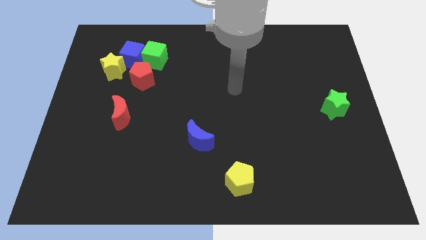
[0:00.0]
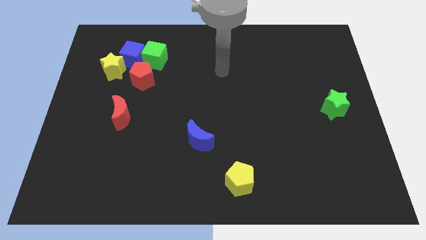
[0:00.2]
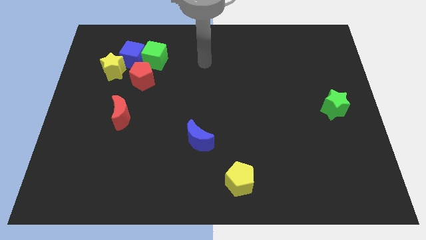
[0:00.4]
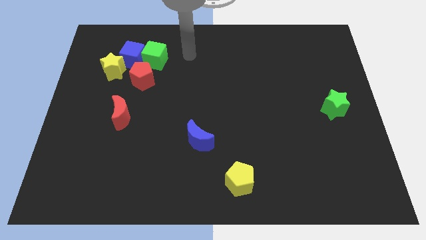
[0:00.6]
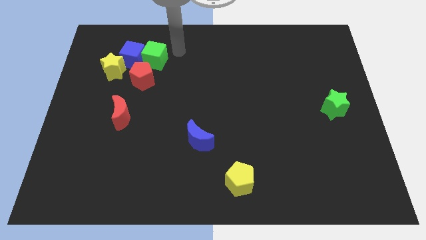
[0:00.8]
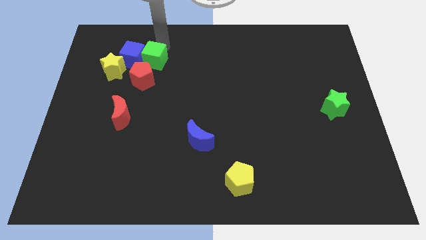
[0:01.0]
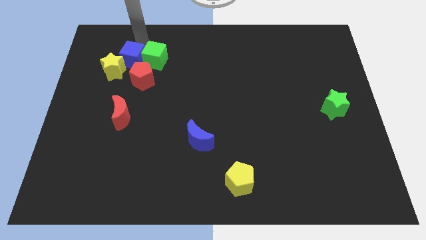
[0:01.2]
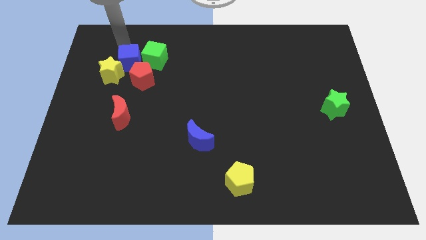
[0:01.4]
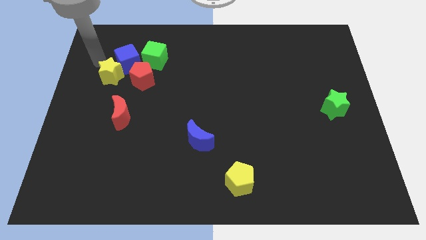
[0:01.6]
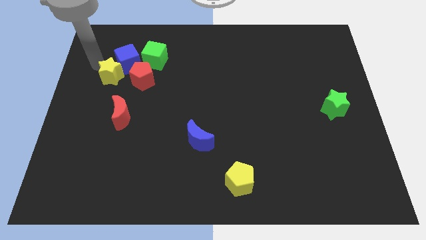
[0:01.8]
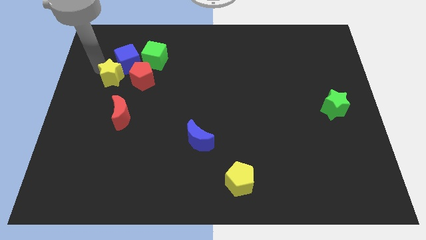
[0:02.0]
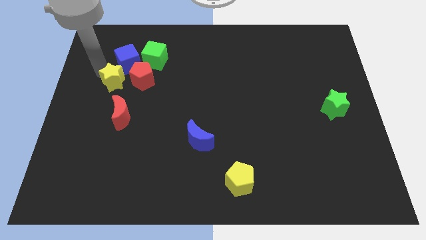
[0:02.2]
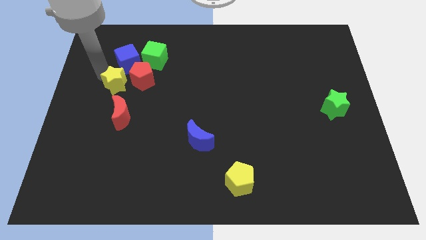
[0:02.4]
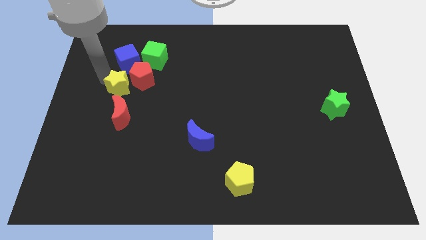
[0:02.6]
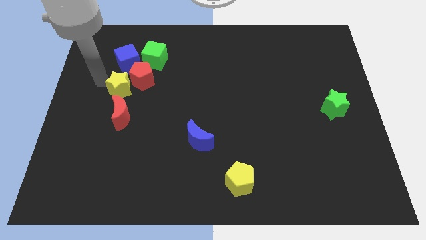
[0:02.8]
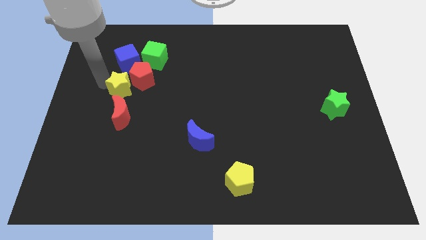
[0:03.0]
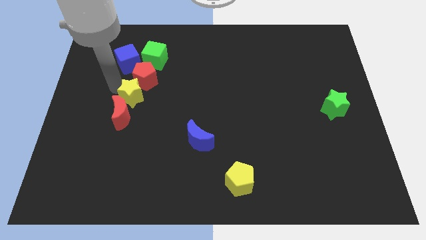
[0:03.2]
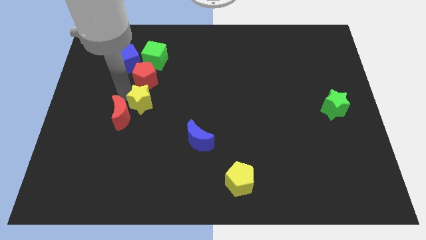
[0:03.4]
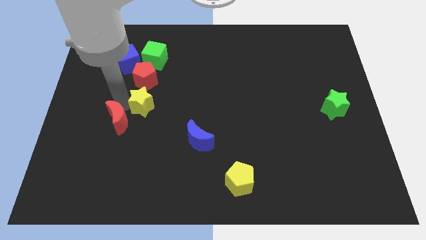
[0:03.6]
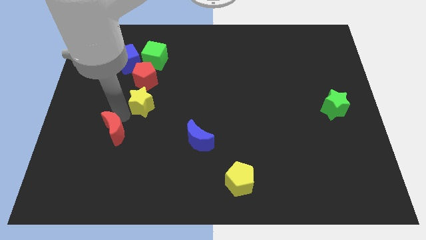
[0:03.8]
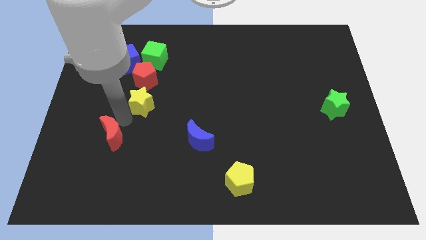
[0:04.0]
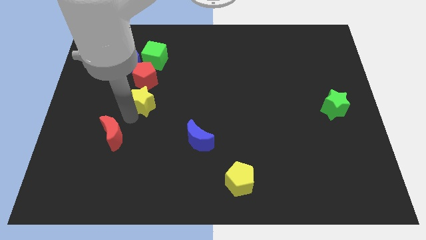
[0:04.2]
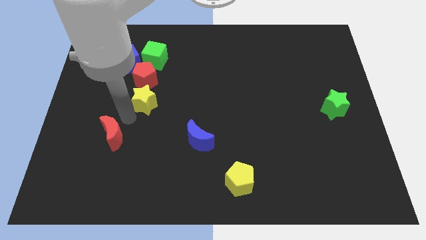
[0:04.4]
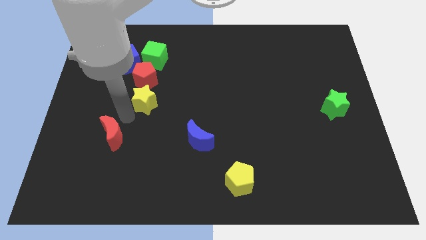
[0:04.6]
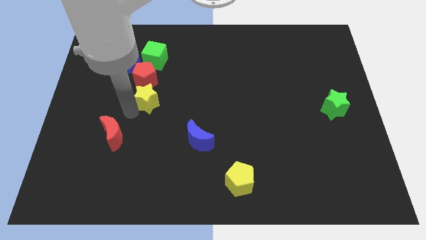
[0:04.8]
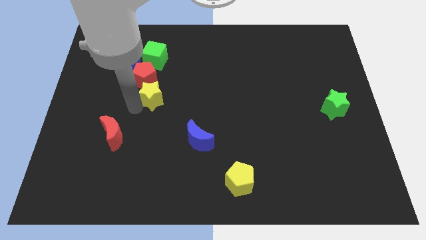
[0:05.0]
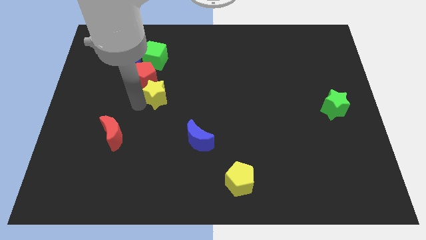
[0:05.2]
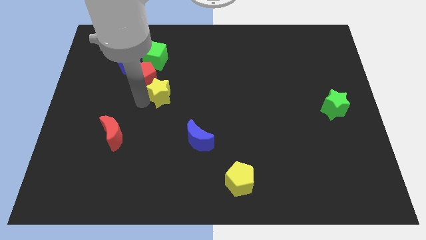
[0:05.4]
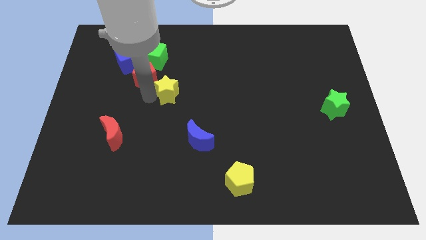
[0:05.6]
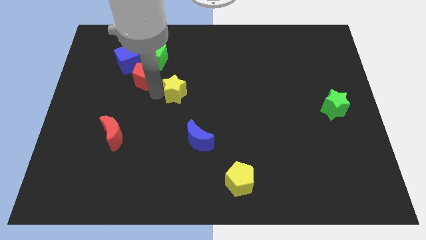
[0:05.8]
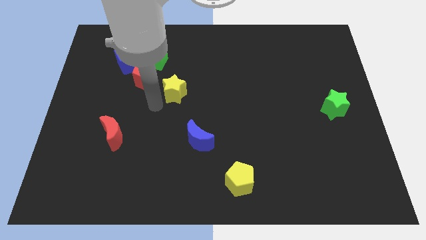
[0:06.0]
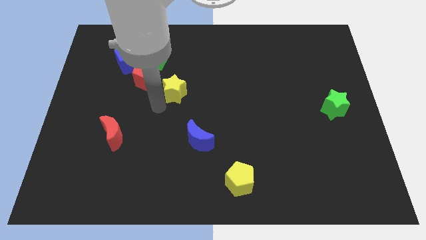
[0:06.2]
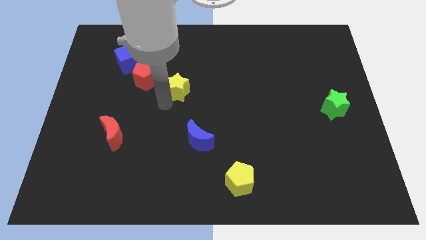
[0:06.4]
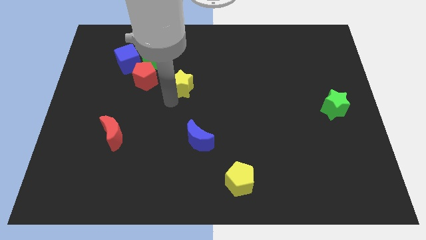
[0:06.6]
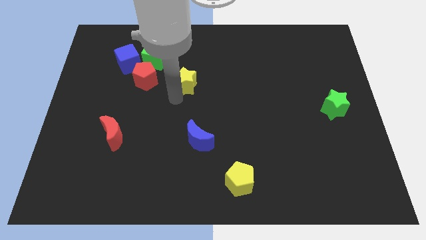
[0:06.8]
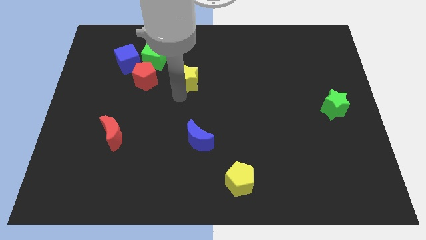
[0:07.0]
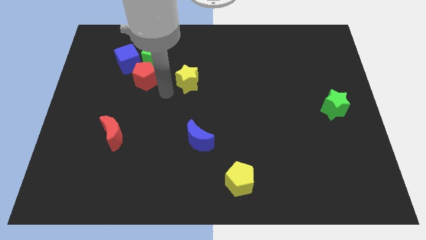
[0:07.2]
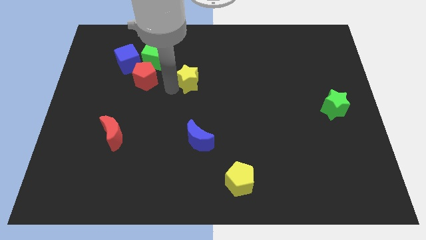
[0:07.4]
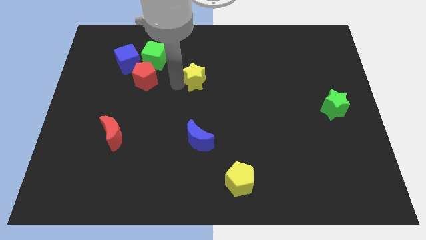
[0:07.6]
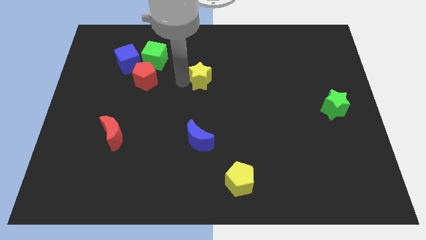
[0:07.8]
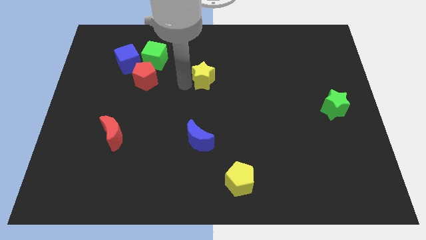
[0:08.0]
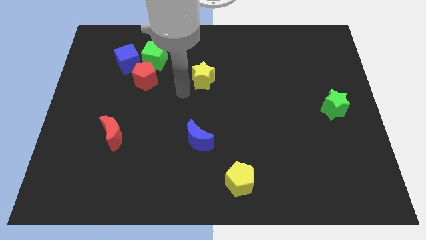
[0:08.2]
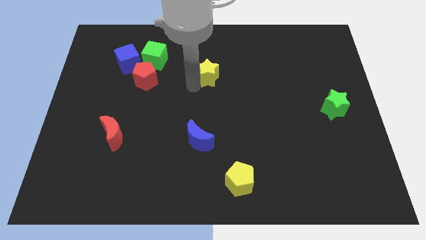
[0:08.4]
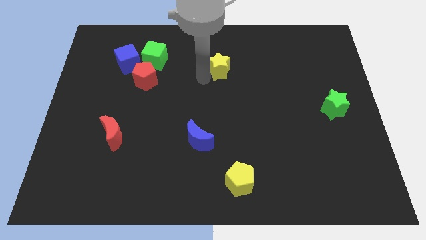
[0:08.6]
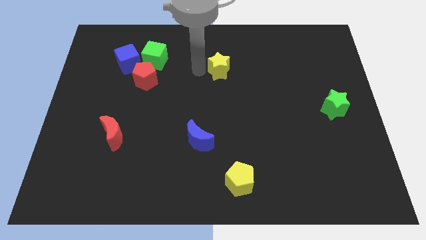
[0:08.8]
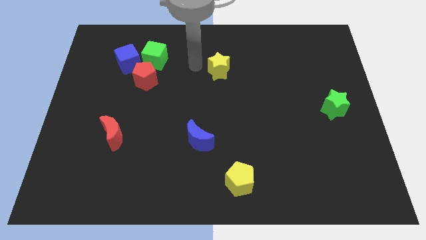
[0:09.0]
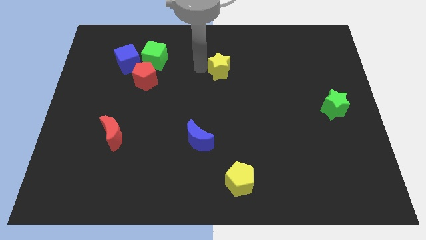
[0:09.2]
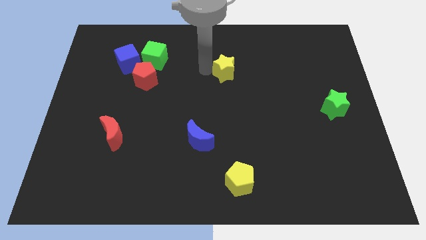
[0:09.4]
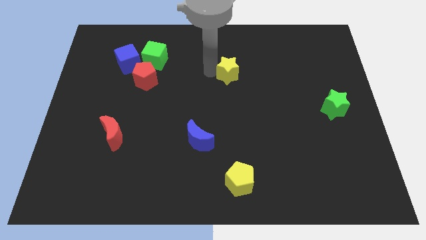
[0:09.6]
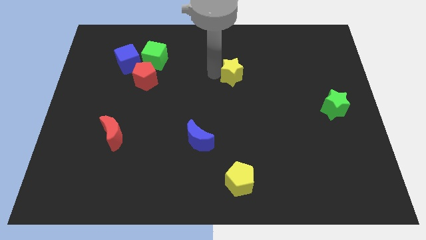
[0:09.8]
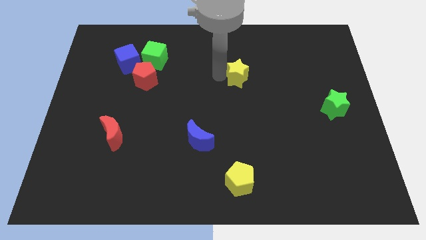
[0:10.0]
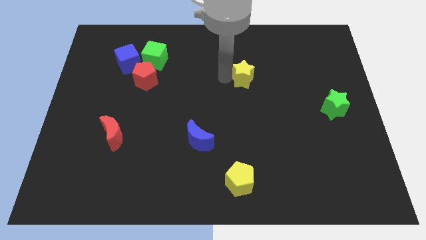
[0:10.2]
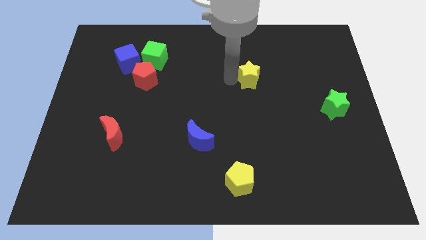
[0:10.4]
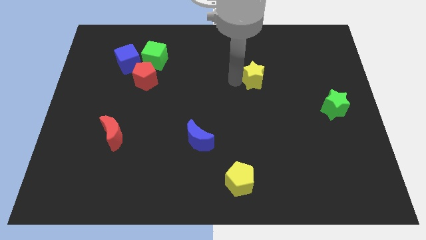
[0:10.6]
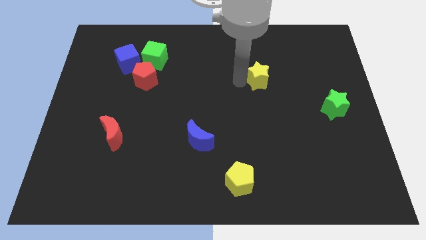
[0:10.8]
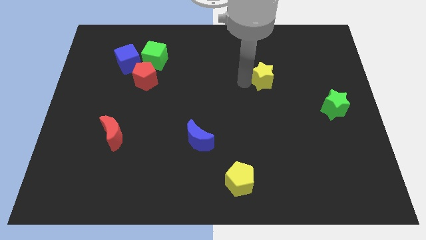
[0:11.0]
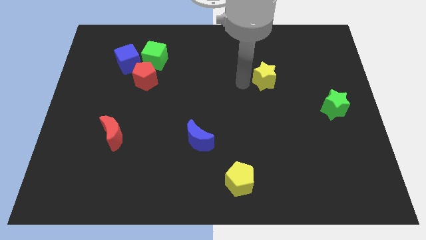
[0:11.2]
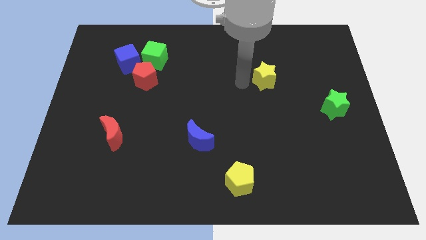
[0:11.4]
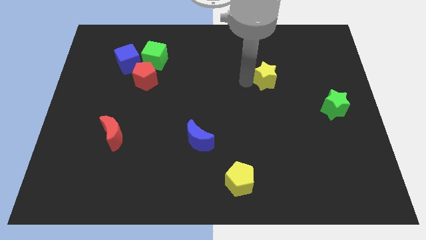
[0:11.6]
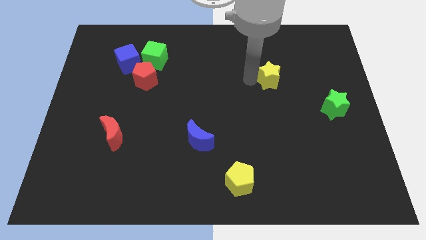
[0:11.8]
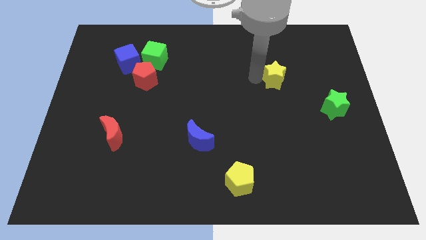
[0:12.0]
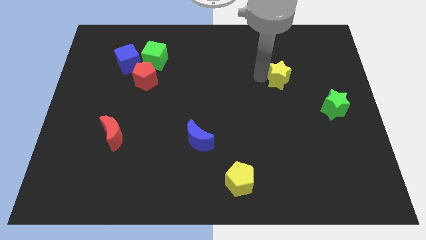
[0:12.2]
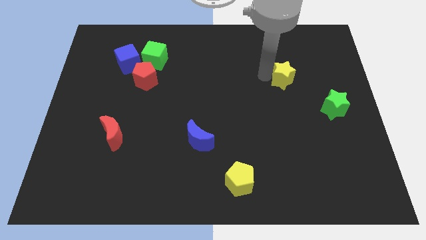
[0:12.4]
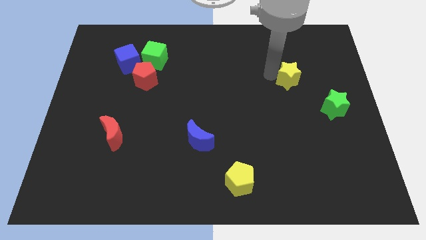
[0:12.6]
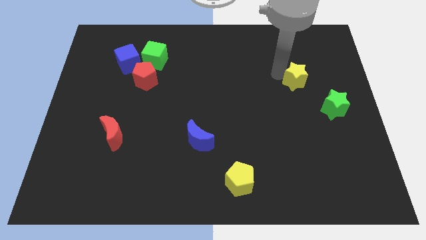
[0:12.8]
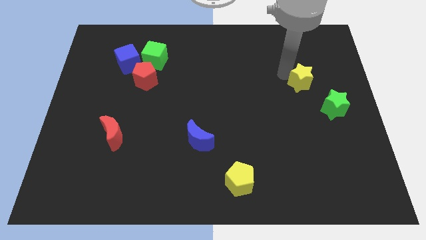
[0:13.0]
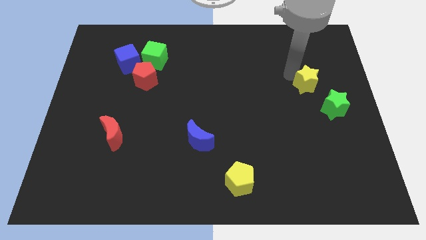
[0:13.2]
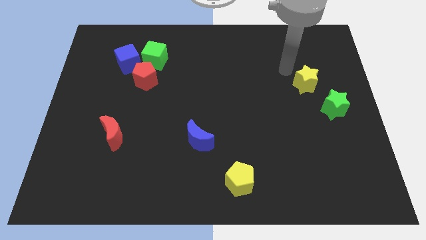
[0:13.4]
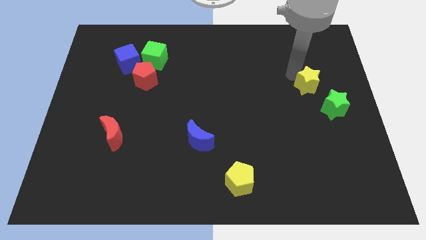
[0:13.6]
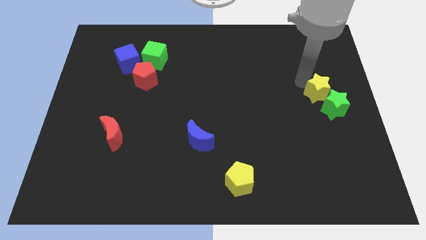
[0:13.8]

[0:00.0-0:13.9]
slide the yellow star to the right side of the board
